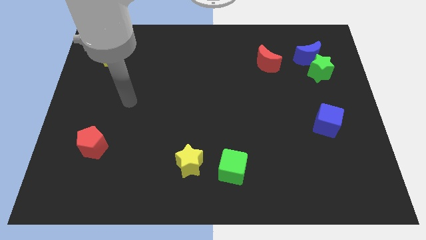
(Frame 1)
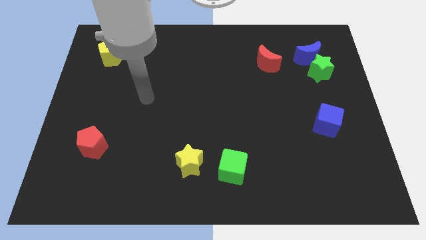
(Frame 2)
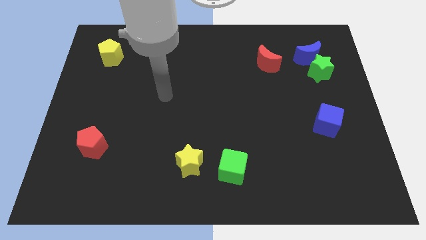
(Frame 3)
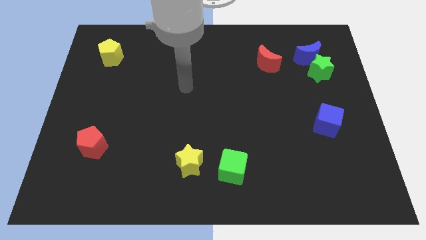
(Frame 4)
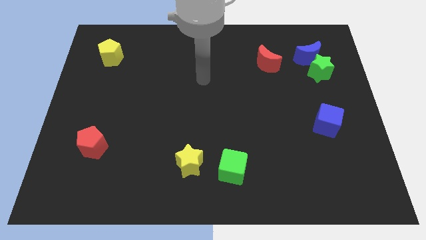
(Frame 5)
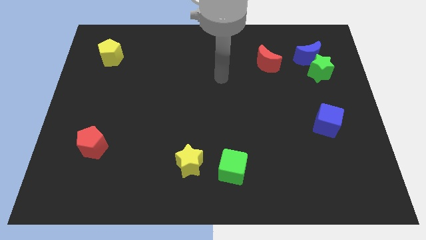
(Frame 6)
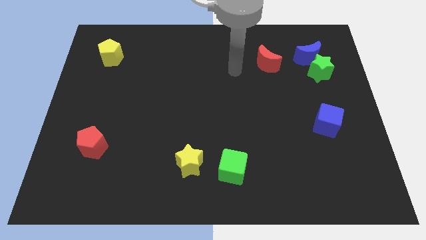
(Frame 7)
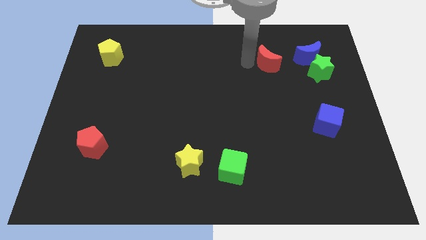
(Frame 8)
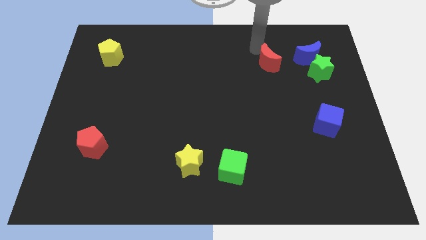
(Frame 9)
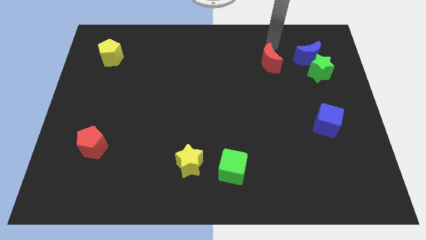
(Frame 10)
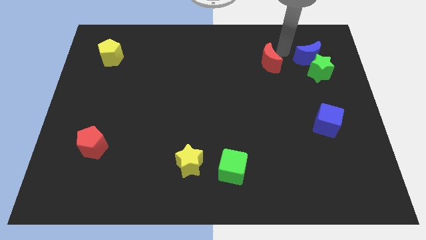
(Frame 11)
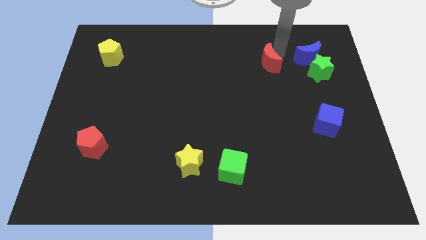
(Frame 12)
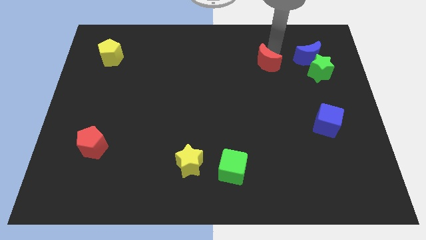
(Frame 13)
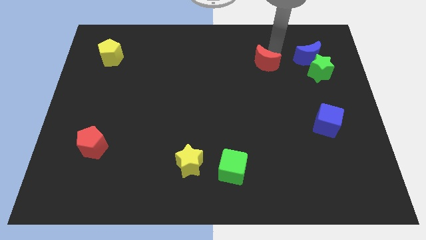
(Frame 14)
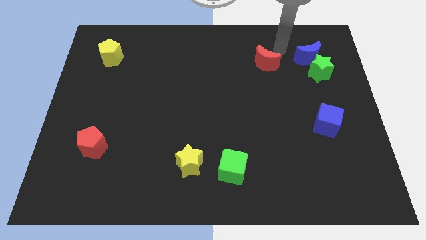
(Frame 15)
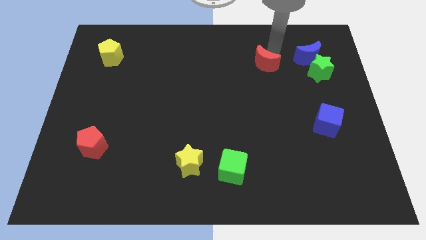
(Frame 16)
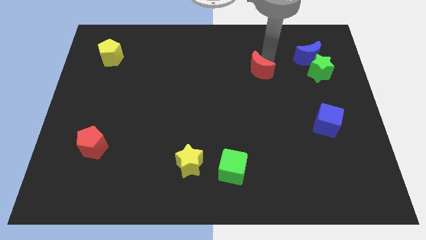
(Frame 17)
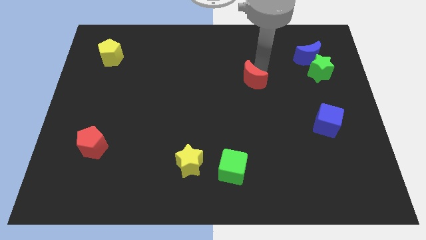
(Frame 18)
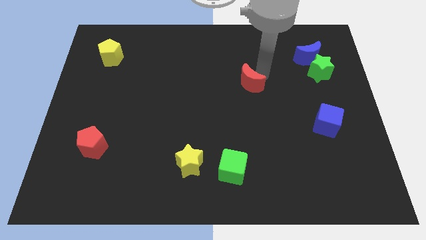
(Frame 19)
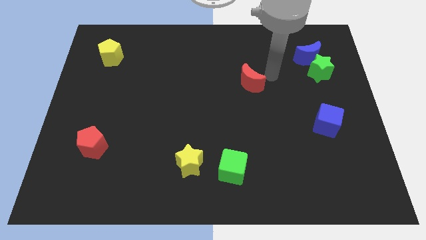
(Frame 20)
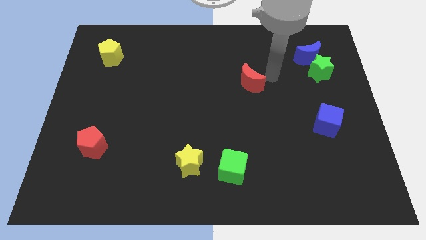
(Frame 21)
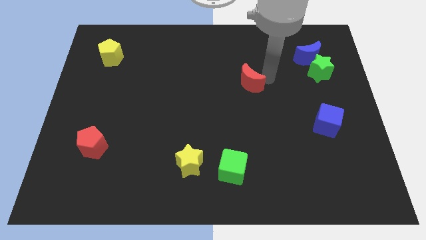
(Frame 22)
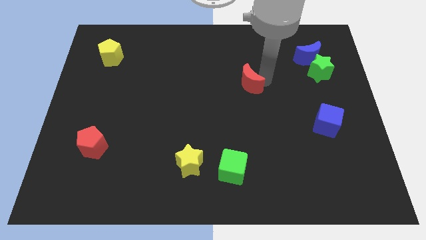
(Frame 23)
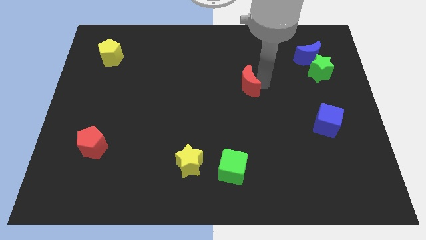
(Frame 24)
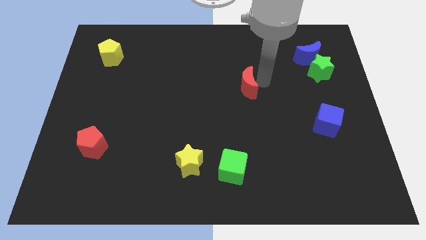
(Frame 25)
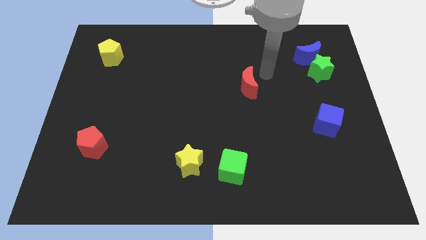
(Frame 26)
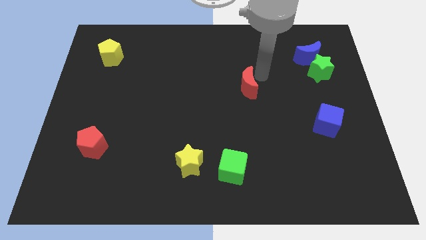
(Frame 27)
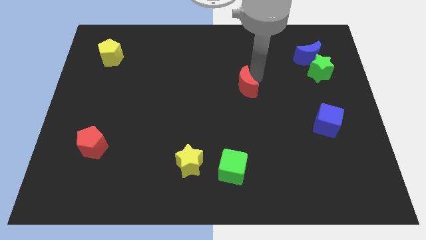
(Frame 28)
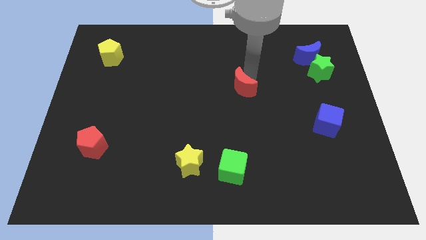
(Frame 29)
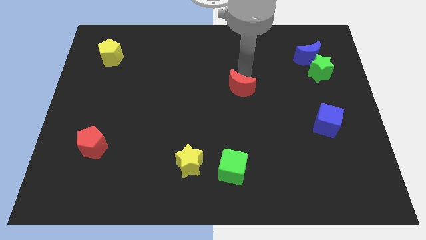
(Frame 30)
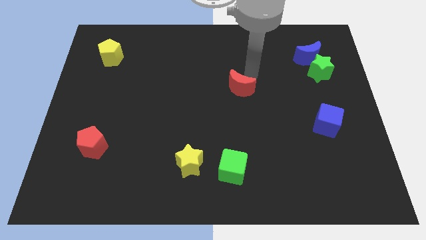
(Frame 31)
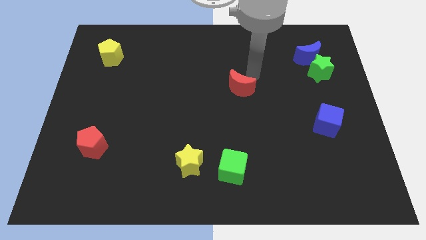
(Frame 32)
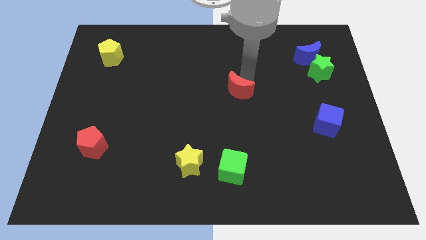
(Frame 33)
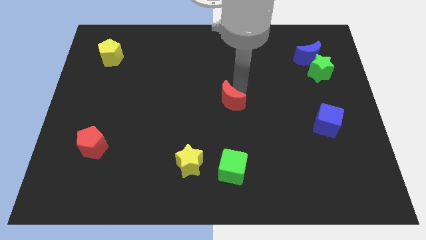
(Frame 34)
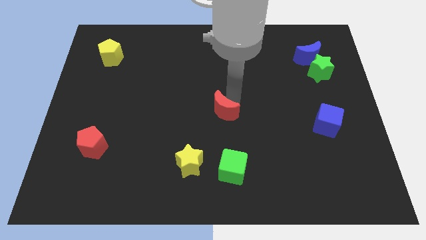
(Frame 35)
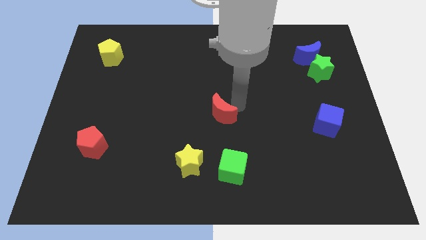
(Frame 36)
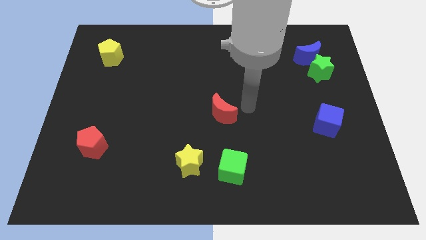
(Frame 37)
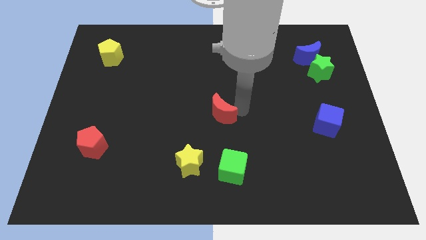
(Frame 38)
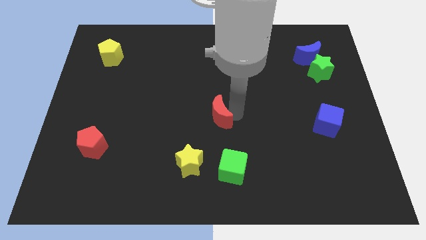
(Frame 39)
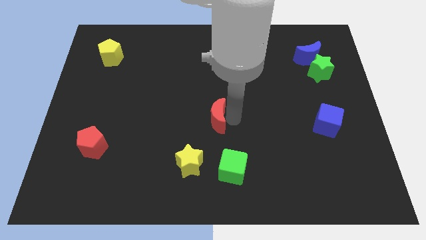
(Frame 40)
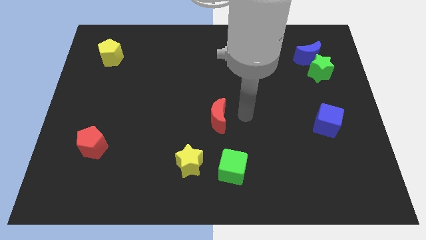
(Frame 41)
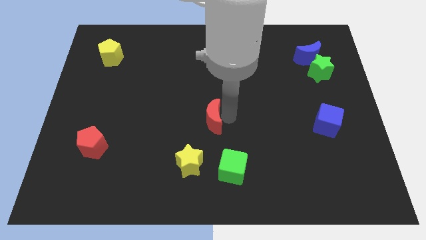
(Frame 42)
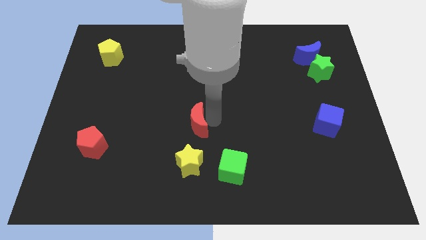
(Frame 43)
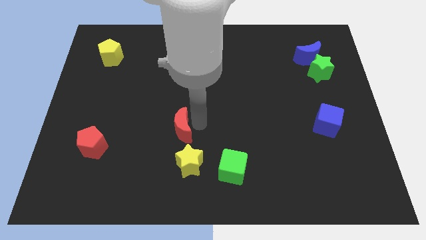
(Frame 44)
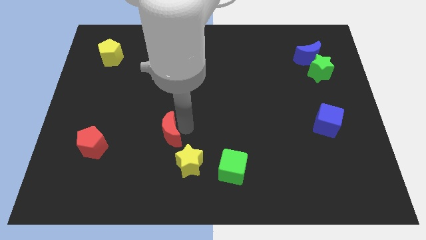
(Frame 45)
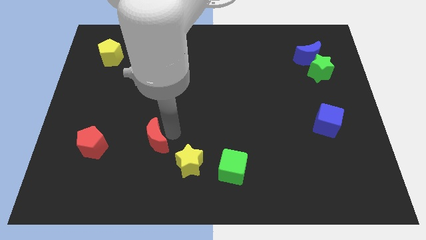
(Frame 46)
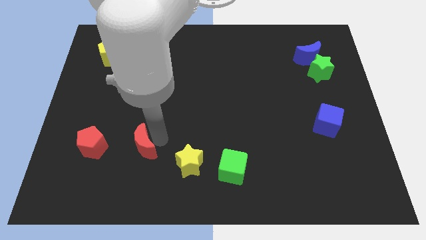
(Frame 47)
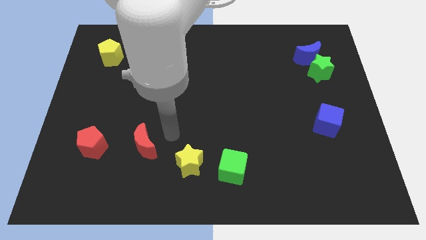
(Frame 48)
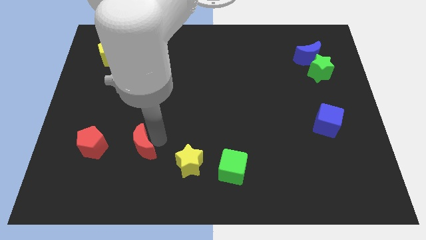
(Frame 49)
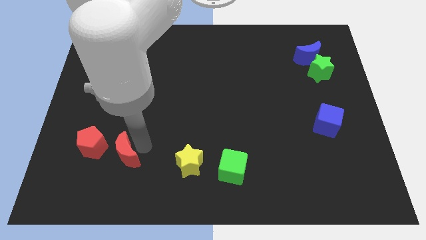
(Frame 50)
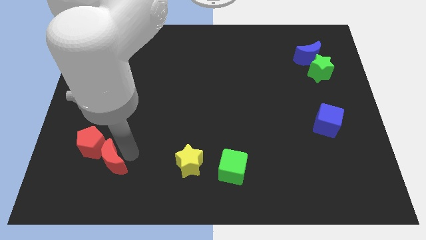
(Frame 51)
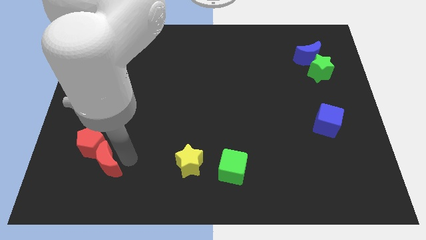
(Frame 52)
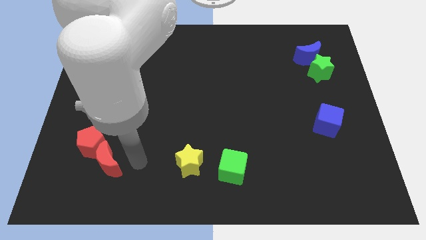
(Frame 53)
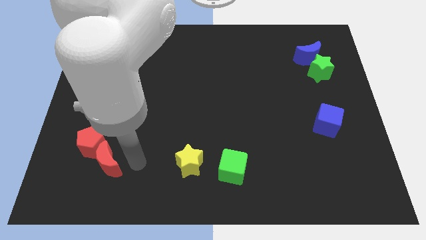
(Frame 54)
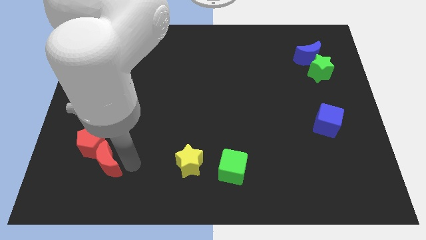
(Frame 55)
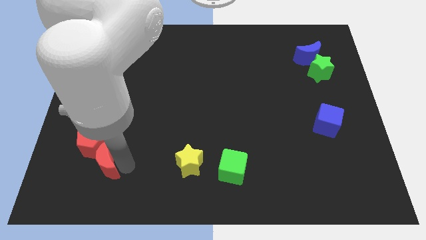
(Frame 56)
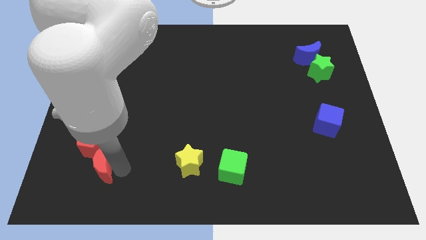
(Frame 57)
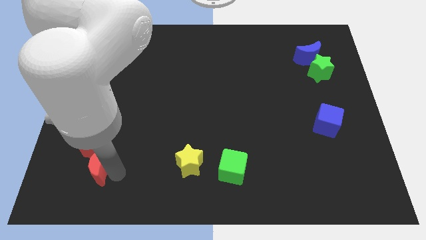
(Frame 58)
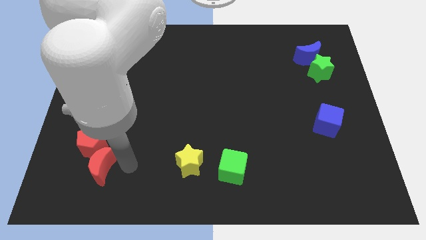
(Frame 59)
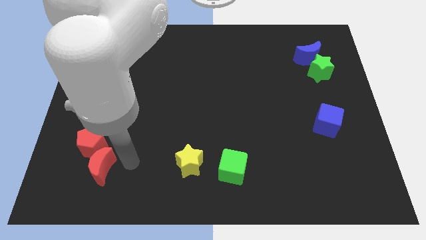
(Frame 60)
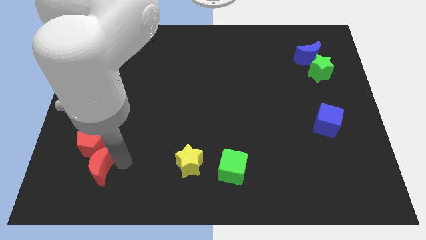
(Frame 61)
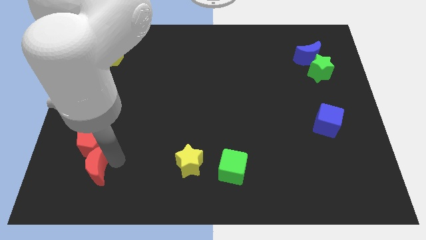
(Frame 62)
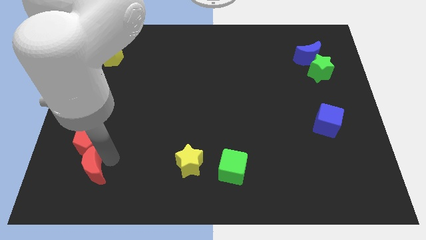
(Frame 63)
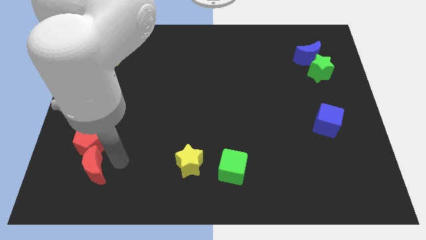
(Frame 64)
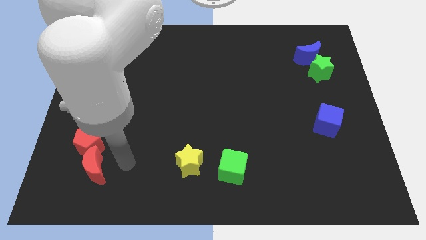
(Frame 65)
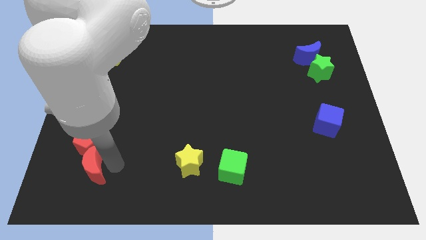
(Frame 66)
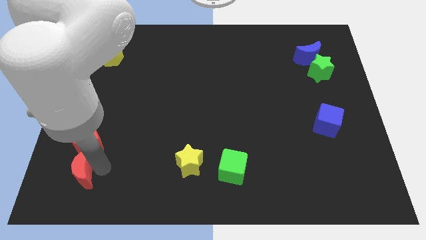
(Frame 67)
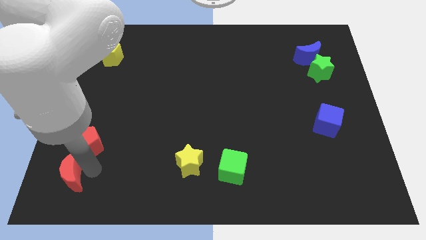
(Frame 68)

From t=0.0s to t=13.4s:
push the red moon to the bottom left of the board
